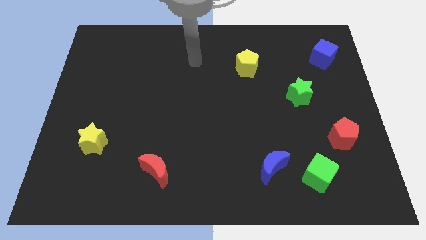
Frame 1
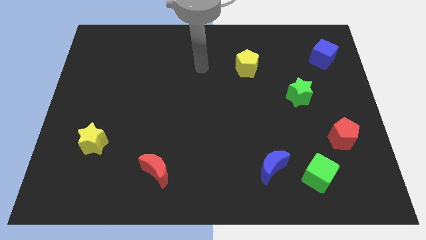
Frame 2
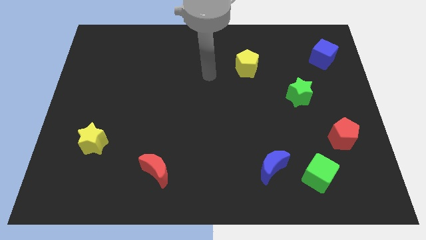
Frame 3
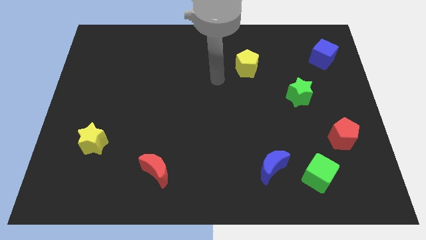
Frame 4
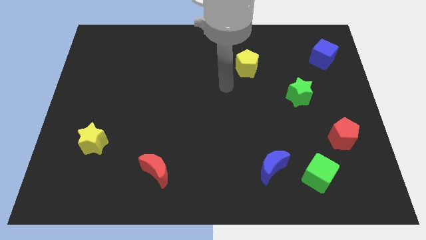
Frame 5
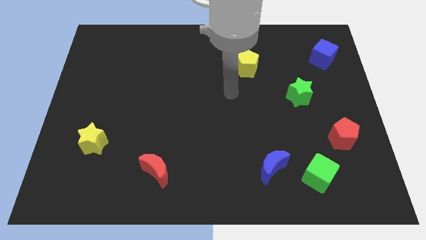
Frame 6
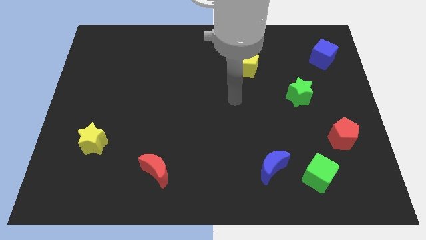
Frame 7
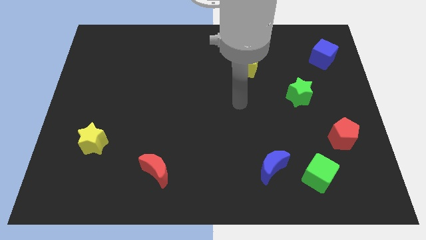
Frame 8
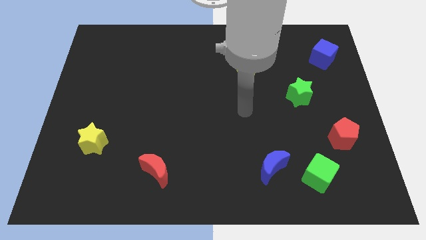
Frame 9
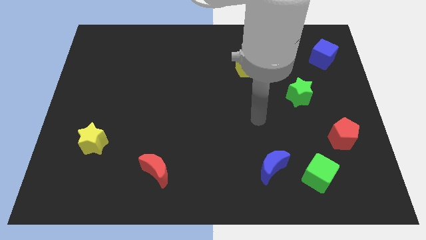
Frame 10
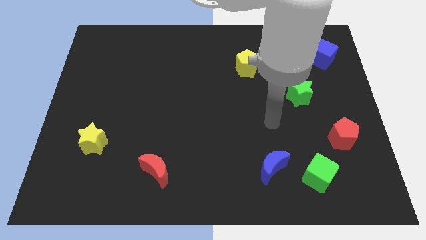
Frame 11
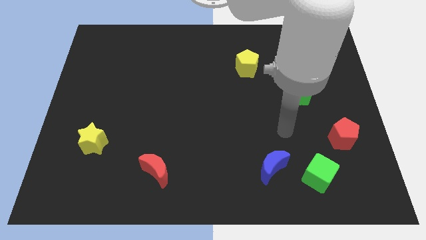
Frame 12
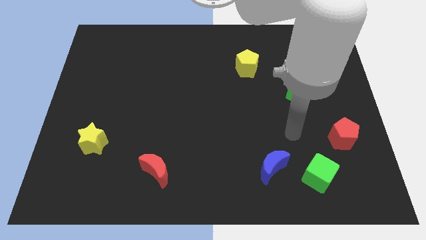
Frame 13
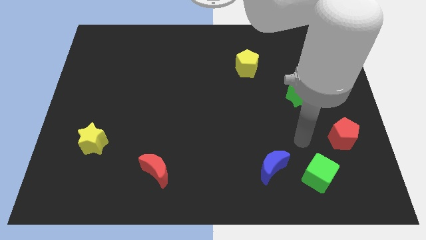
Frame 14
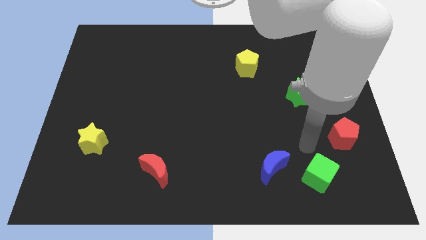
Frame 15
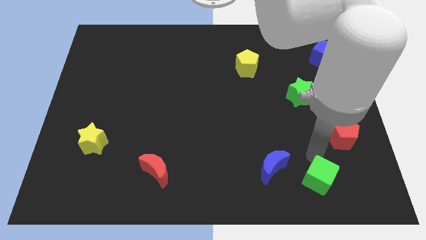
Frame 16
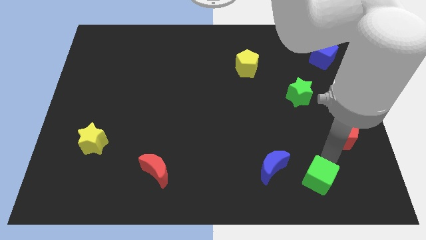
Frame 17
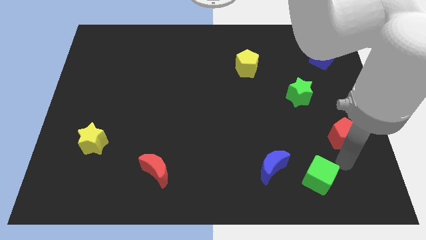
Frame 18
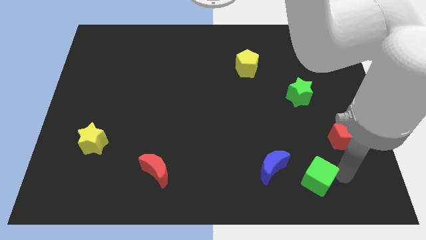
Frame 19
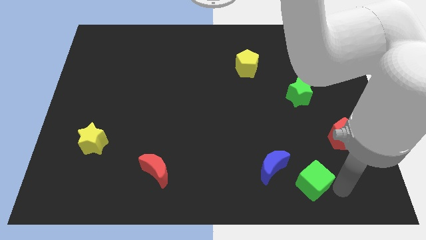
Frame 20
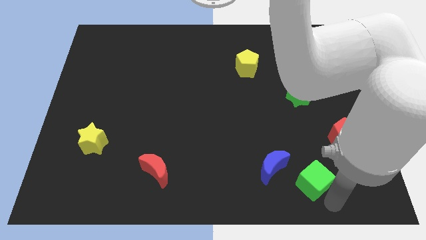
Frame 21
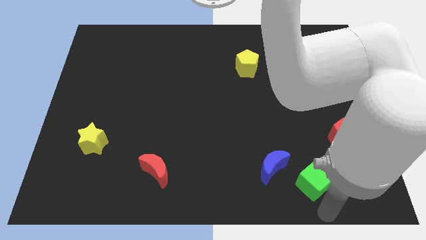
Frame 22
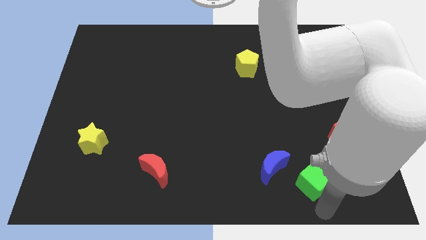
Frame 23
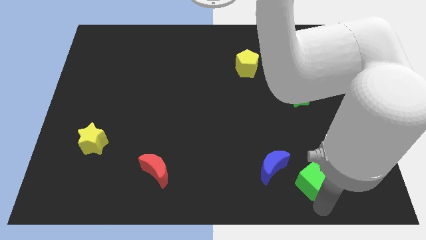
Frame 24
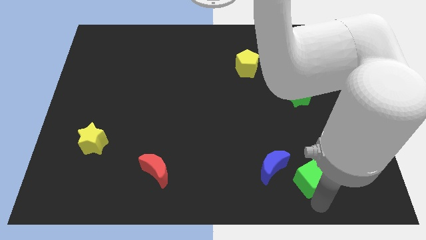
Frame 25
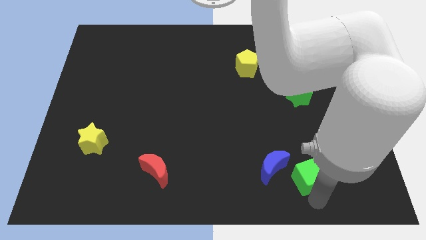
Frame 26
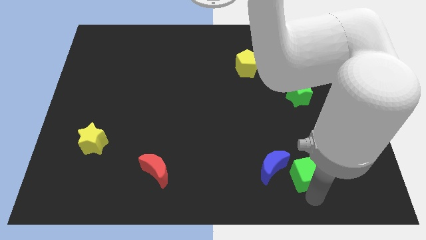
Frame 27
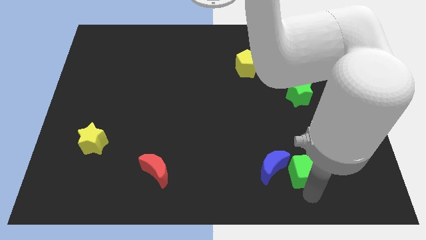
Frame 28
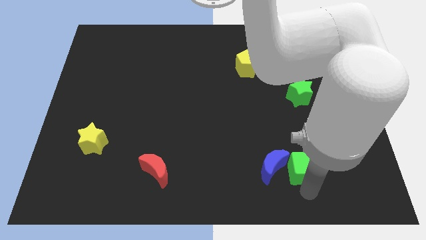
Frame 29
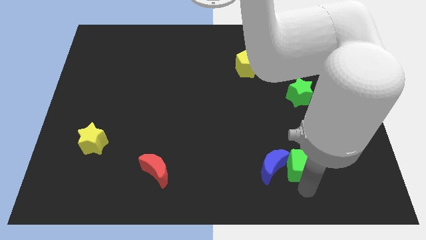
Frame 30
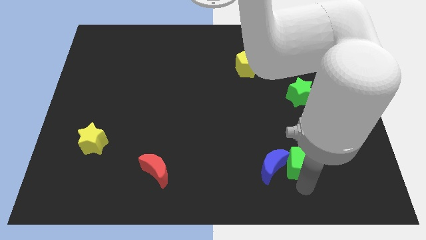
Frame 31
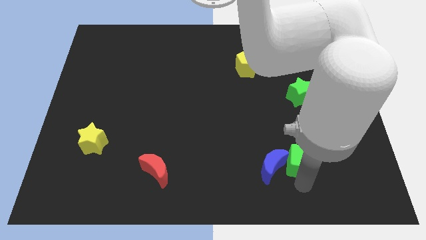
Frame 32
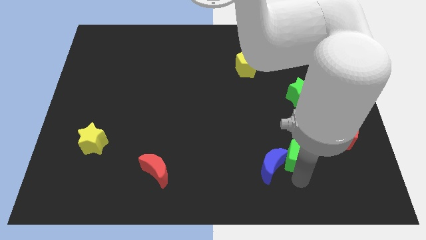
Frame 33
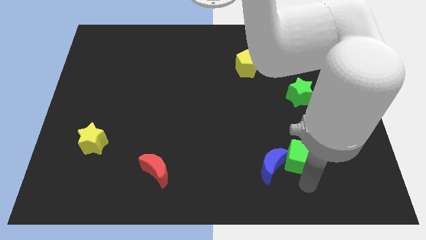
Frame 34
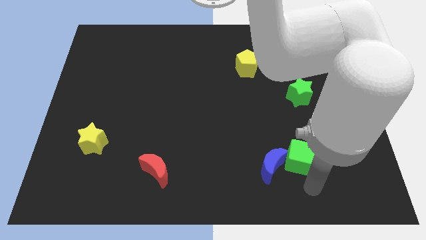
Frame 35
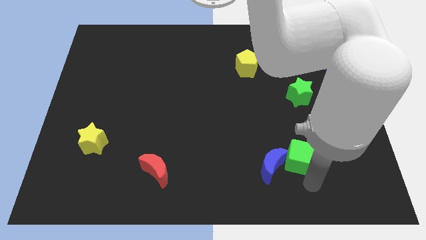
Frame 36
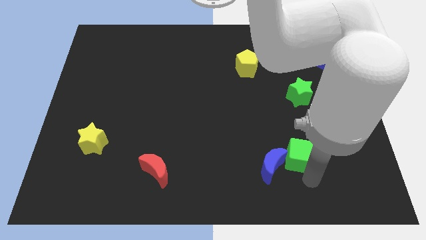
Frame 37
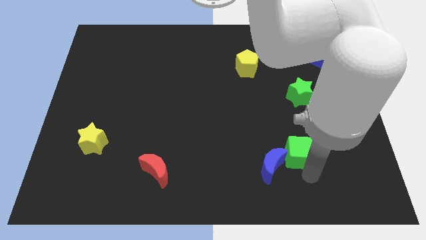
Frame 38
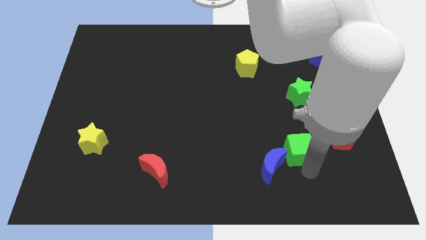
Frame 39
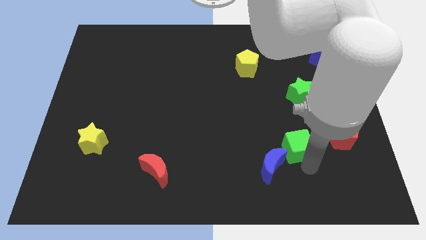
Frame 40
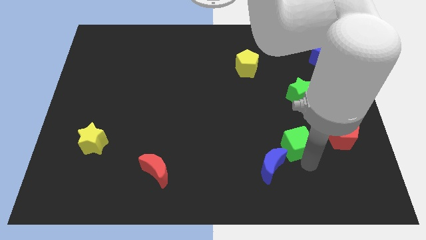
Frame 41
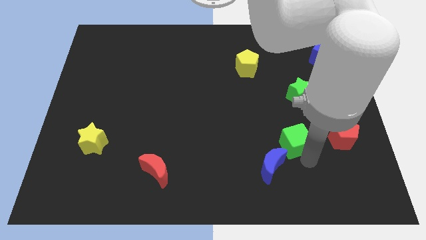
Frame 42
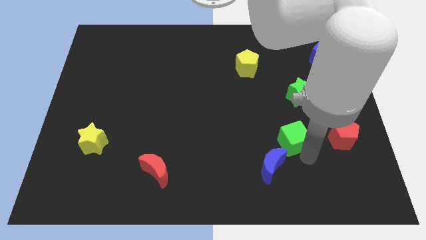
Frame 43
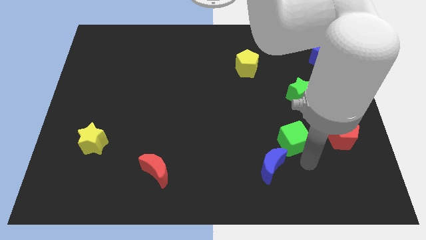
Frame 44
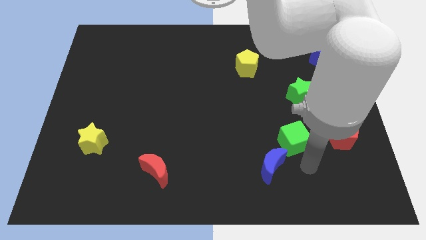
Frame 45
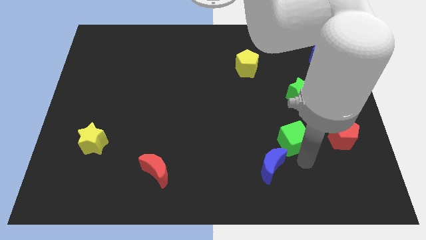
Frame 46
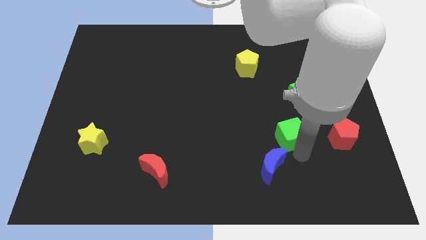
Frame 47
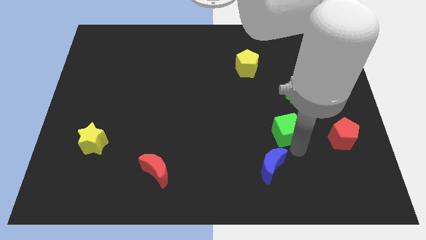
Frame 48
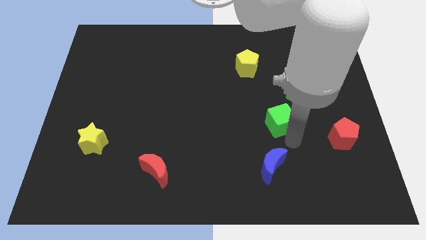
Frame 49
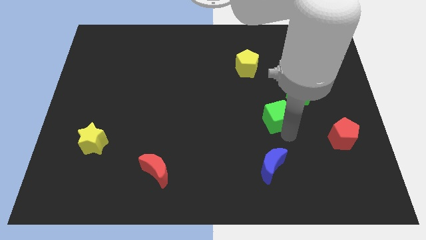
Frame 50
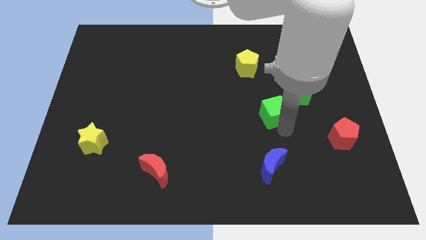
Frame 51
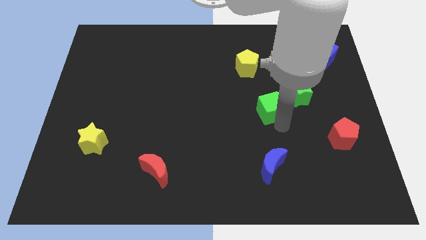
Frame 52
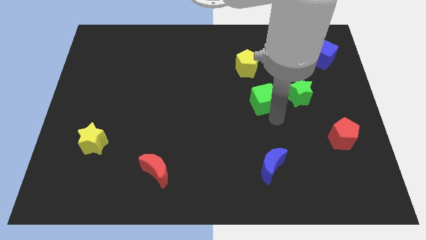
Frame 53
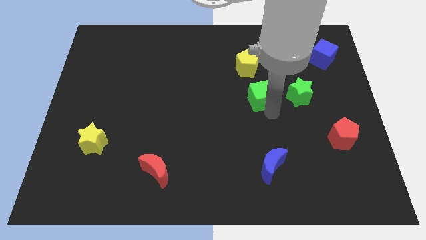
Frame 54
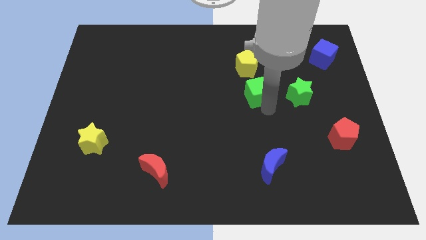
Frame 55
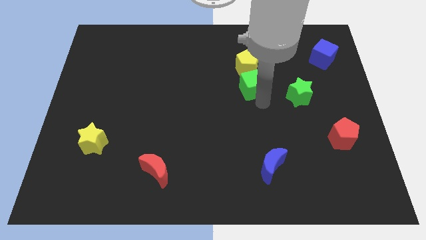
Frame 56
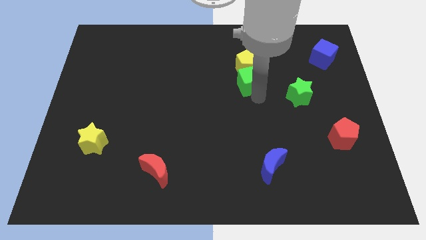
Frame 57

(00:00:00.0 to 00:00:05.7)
slide the green cube to the yellow pentagon

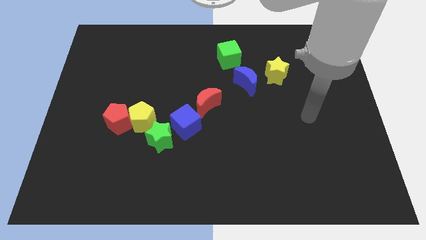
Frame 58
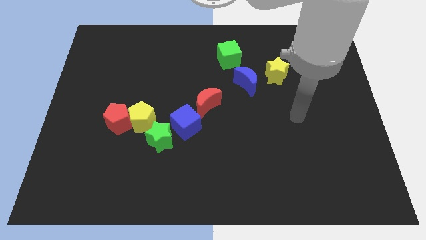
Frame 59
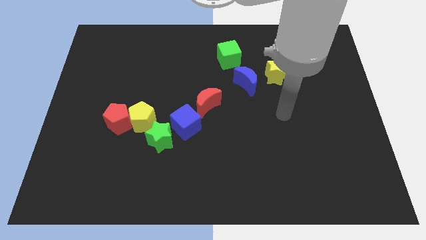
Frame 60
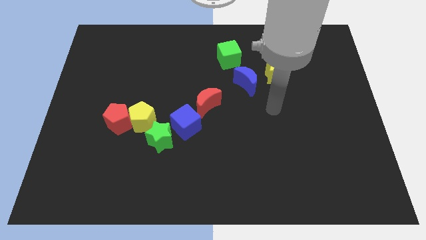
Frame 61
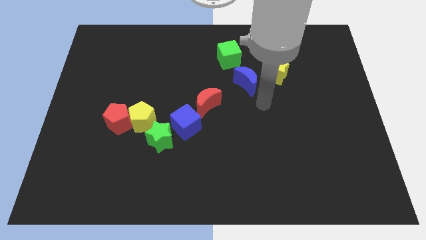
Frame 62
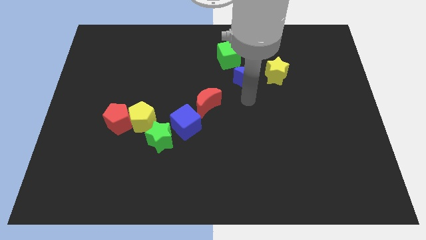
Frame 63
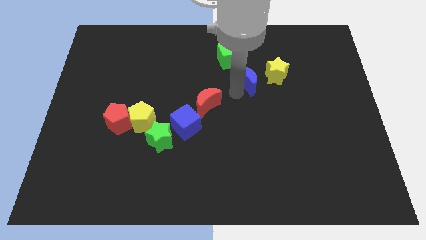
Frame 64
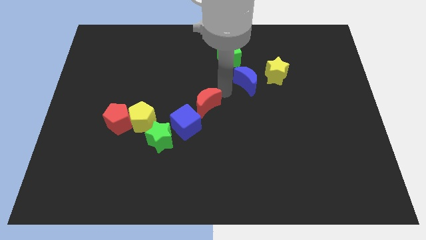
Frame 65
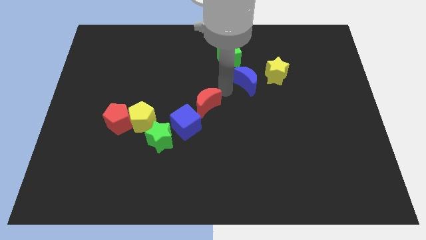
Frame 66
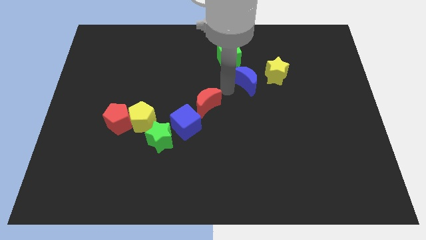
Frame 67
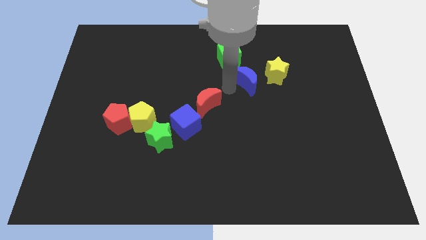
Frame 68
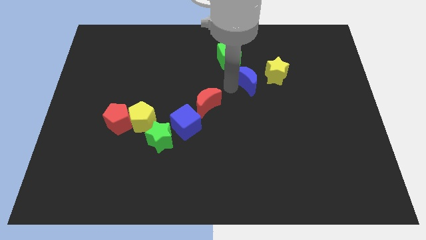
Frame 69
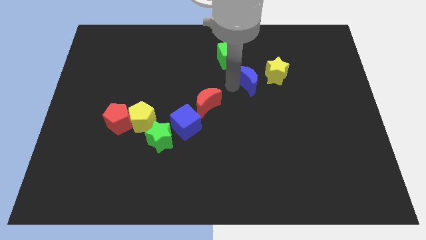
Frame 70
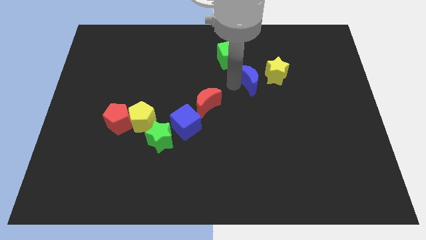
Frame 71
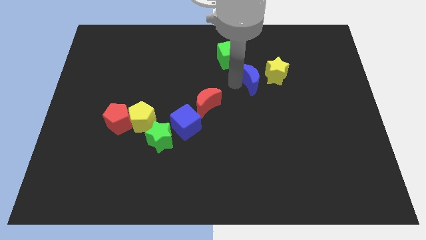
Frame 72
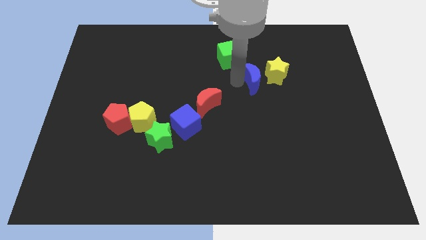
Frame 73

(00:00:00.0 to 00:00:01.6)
push the blue moon next to the yellow star
